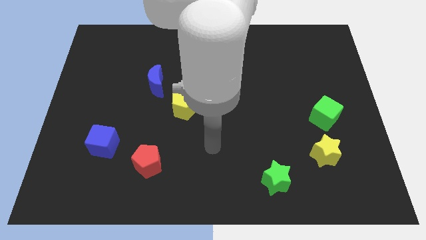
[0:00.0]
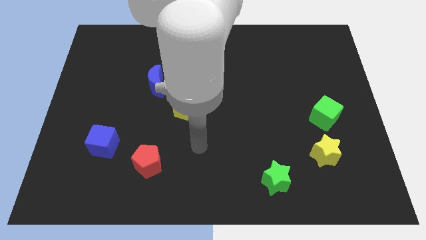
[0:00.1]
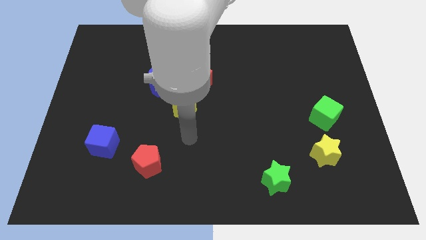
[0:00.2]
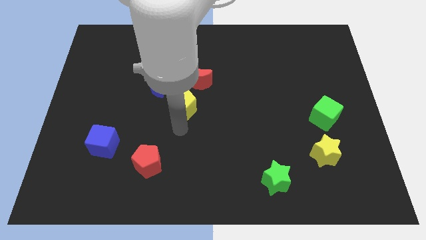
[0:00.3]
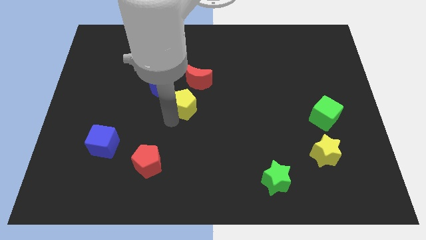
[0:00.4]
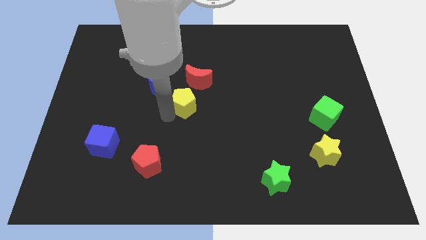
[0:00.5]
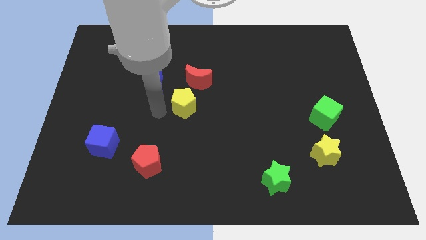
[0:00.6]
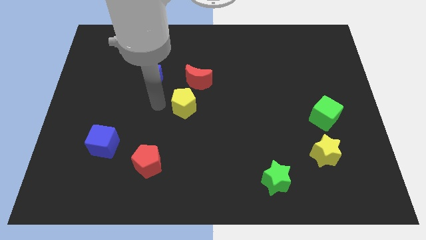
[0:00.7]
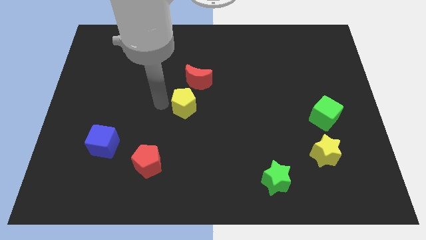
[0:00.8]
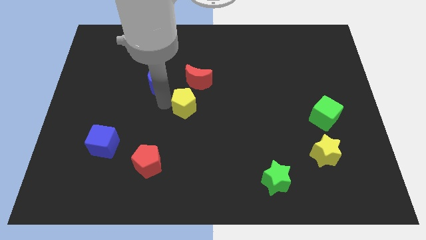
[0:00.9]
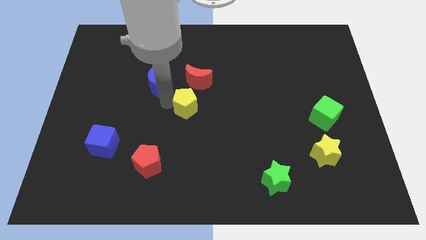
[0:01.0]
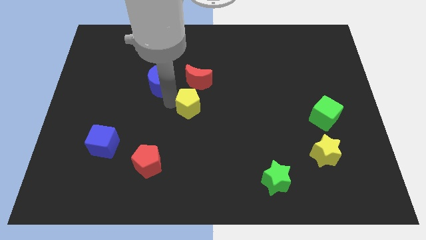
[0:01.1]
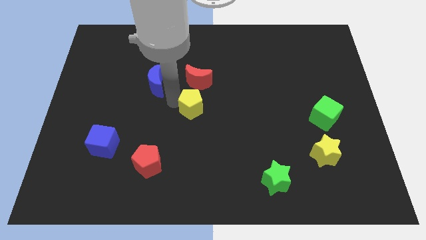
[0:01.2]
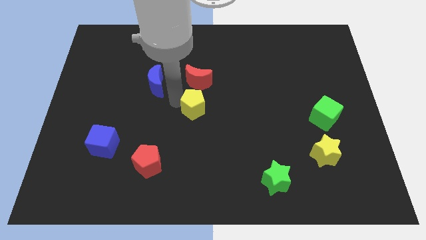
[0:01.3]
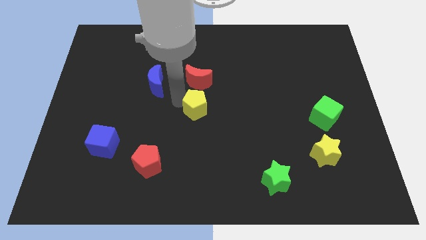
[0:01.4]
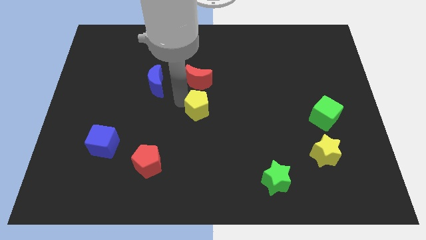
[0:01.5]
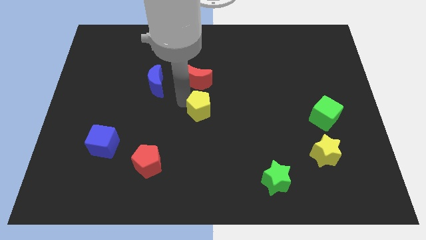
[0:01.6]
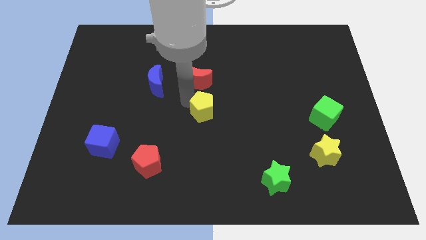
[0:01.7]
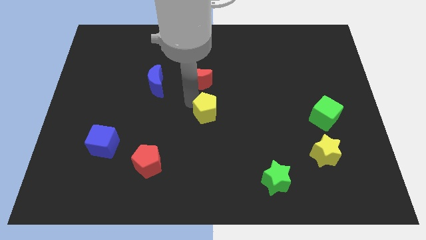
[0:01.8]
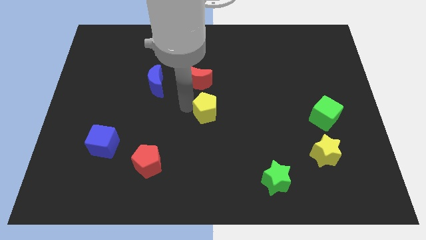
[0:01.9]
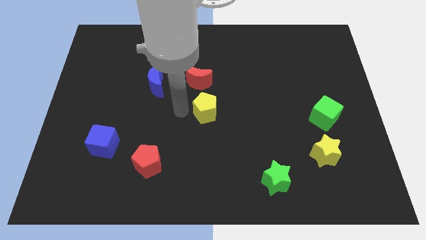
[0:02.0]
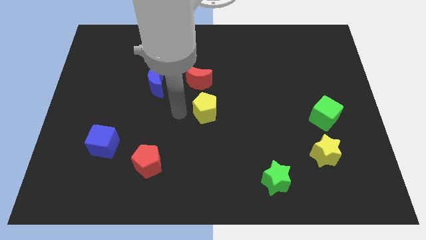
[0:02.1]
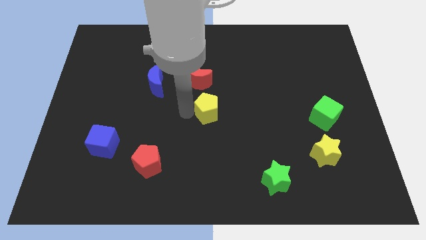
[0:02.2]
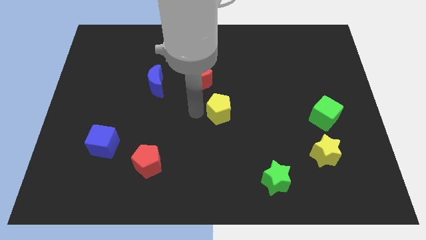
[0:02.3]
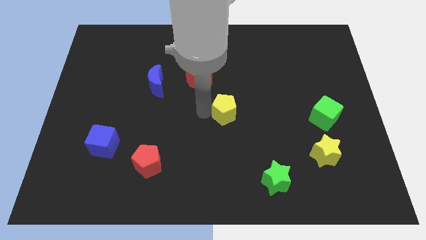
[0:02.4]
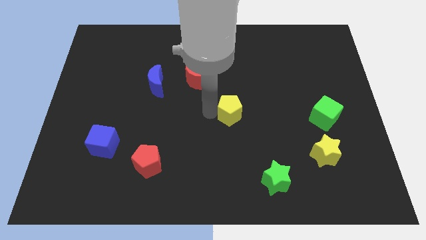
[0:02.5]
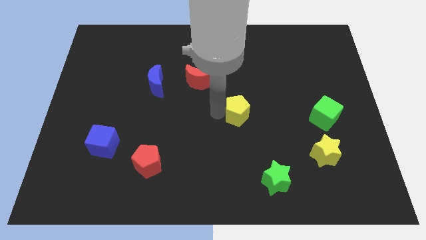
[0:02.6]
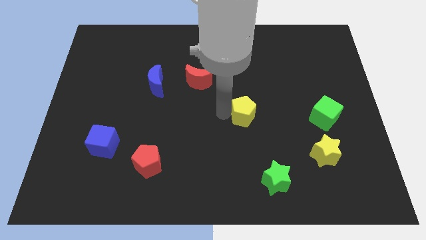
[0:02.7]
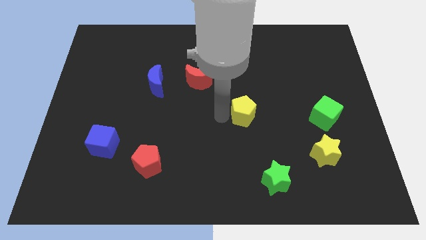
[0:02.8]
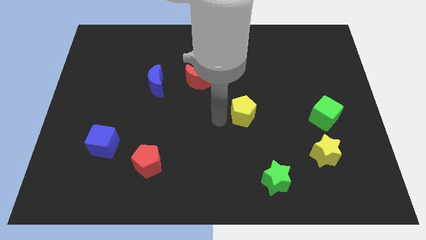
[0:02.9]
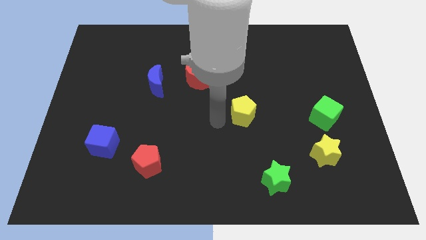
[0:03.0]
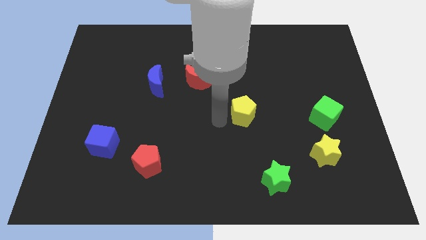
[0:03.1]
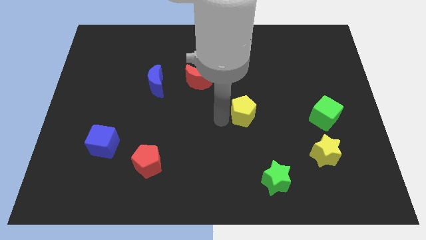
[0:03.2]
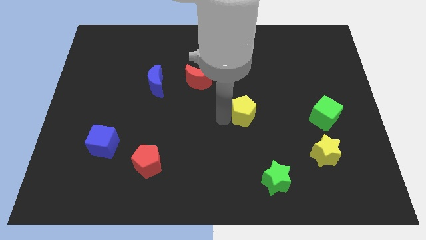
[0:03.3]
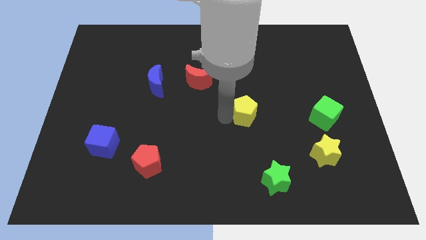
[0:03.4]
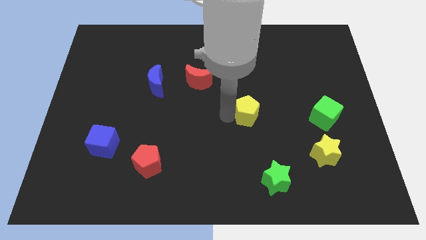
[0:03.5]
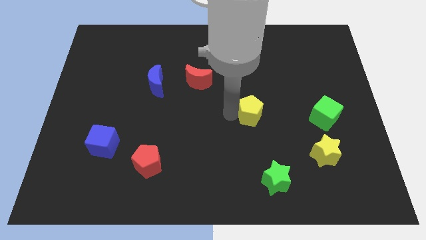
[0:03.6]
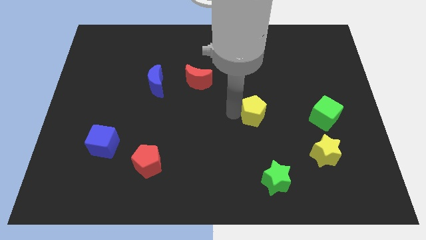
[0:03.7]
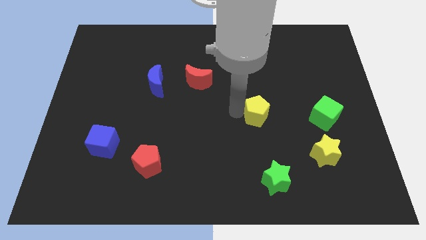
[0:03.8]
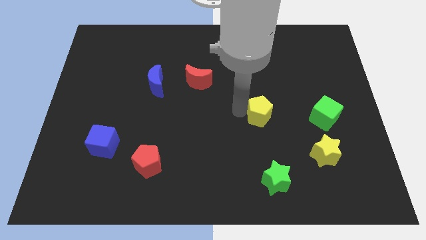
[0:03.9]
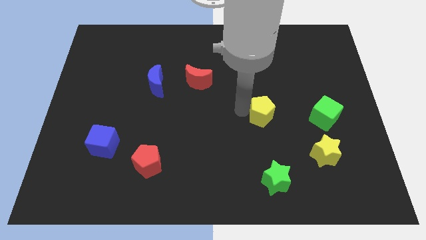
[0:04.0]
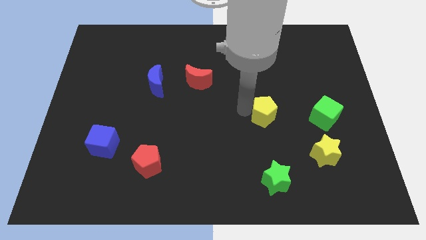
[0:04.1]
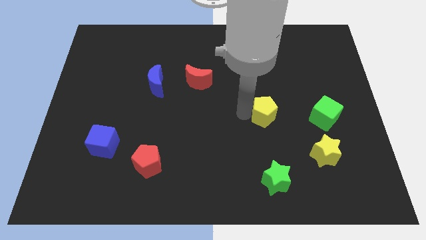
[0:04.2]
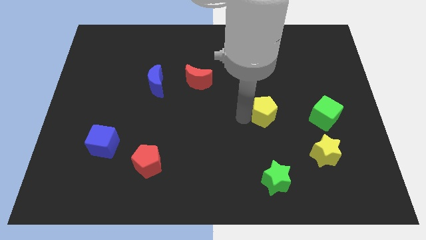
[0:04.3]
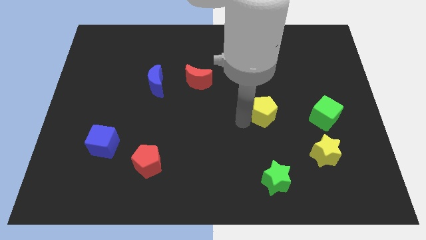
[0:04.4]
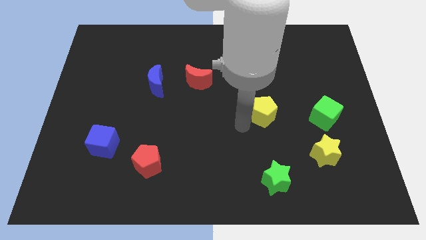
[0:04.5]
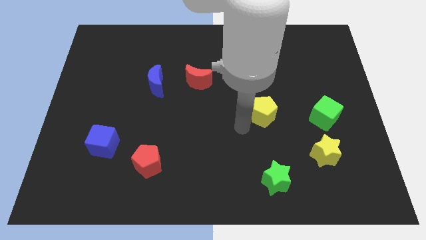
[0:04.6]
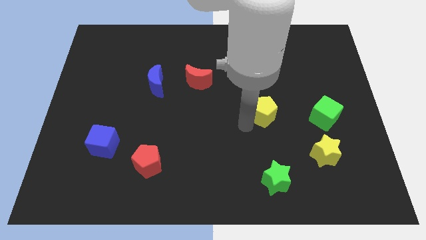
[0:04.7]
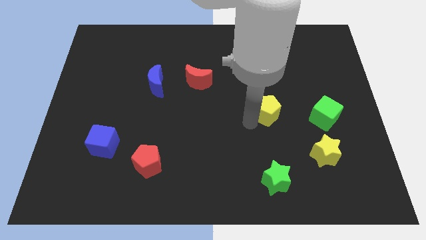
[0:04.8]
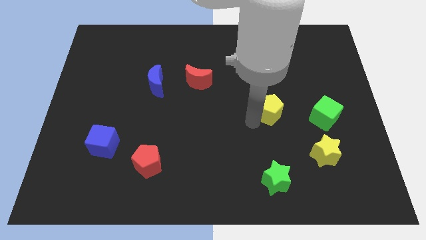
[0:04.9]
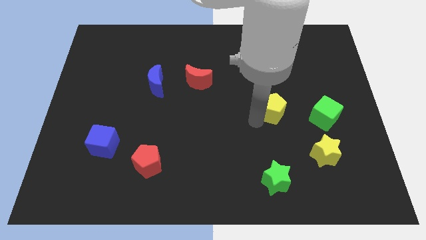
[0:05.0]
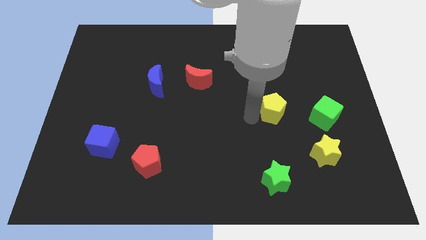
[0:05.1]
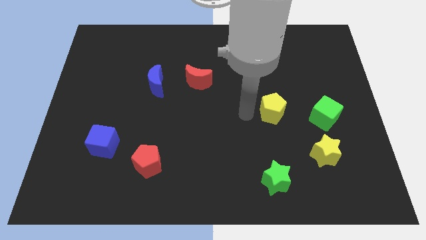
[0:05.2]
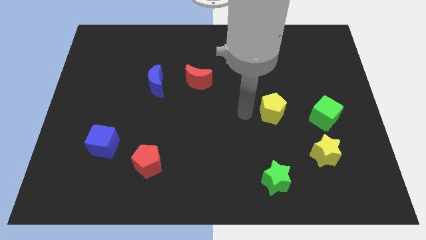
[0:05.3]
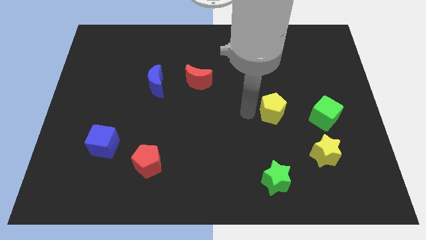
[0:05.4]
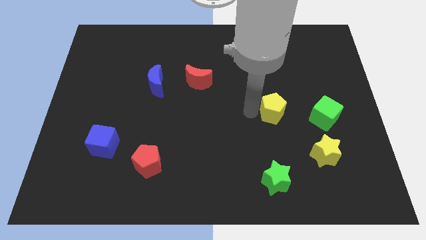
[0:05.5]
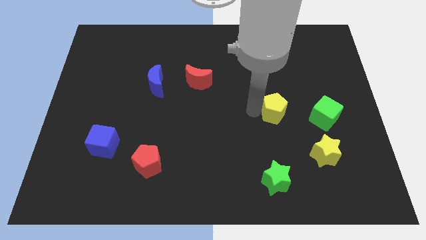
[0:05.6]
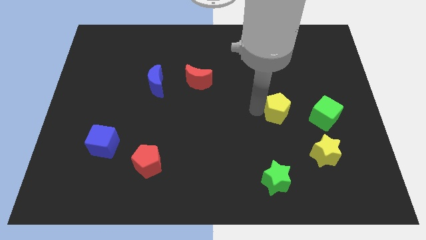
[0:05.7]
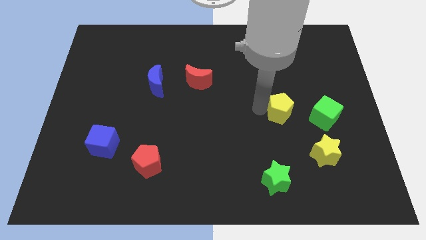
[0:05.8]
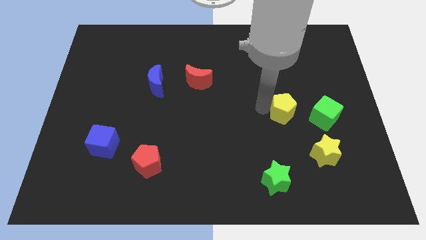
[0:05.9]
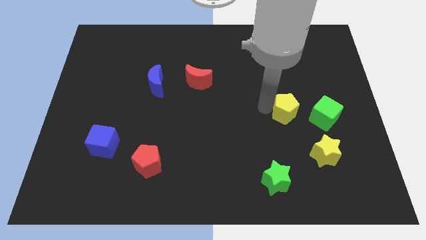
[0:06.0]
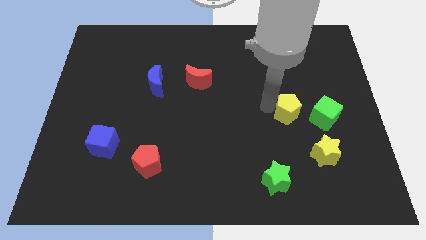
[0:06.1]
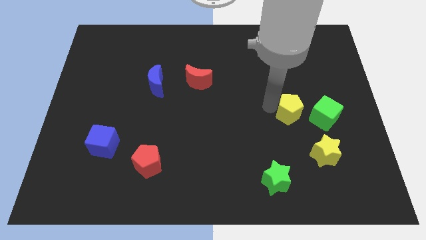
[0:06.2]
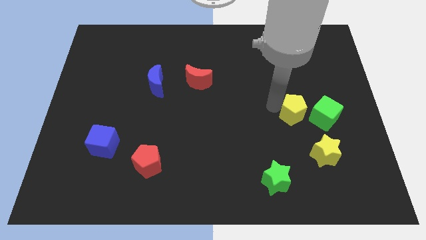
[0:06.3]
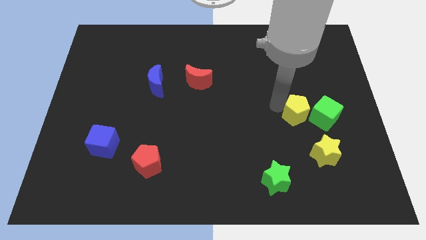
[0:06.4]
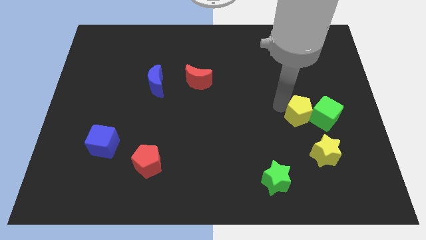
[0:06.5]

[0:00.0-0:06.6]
slide the yellow pentagon close to the green cube
